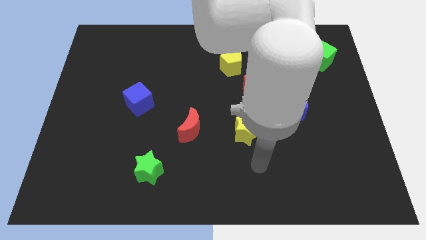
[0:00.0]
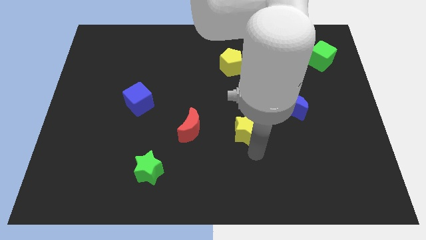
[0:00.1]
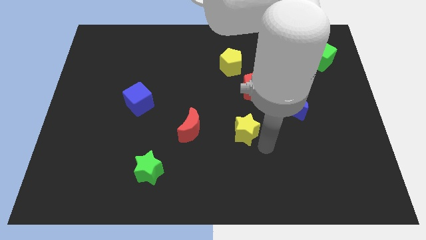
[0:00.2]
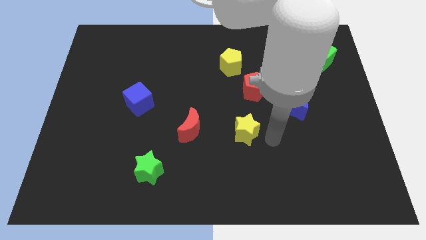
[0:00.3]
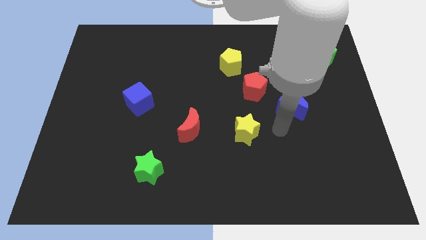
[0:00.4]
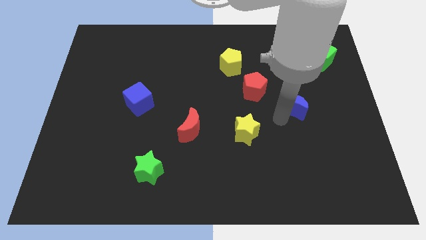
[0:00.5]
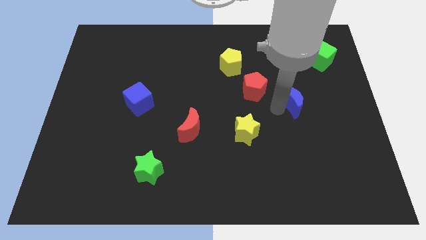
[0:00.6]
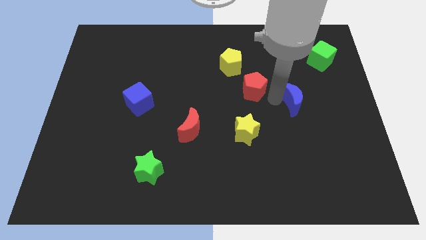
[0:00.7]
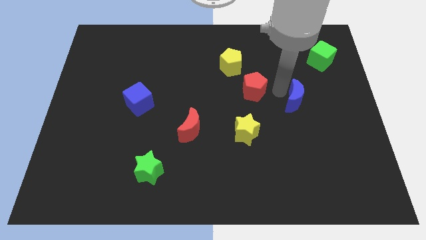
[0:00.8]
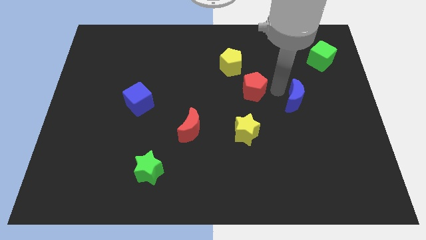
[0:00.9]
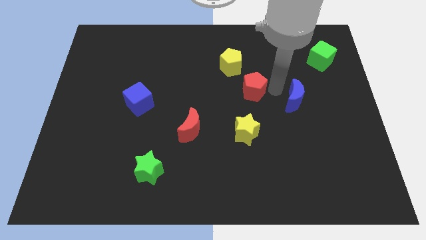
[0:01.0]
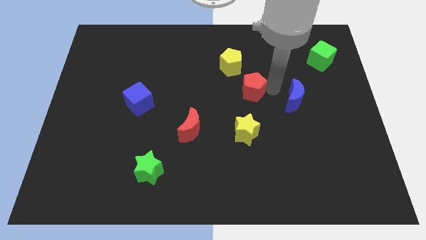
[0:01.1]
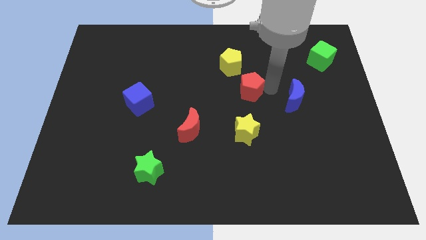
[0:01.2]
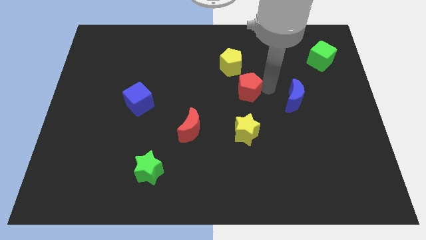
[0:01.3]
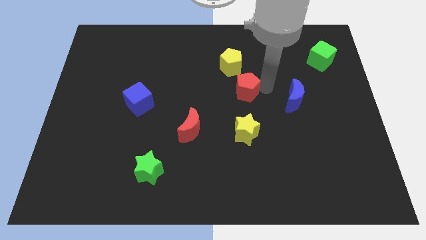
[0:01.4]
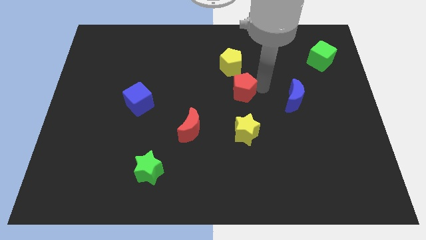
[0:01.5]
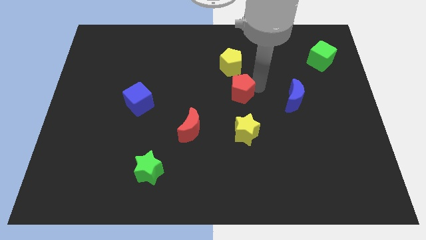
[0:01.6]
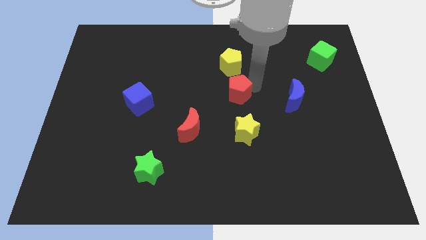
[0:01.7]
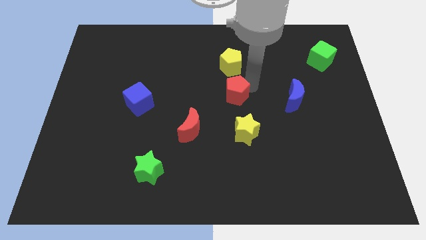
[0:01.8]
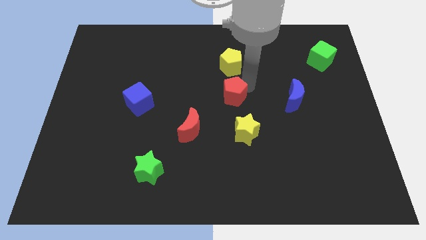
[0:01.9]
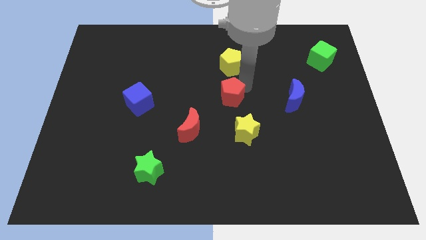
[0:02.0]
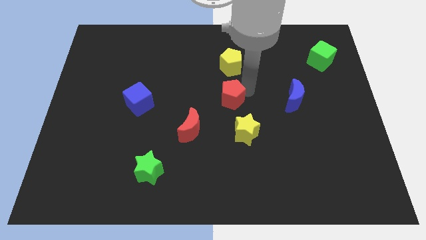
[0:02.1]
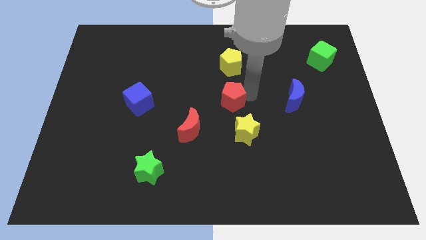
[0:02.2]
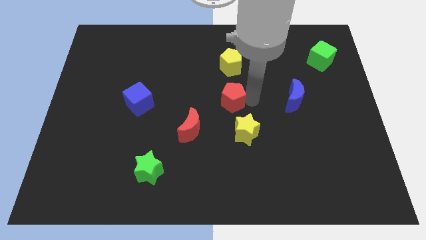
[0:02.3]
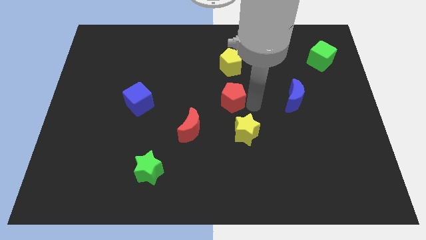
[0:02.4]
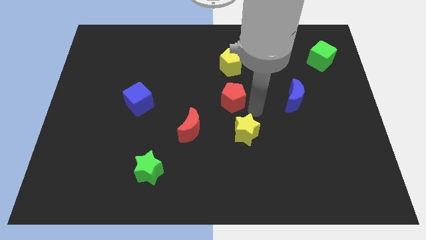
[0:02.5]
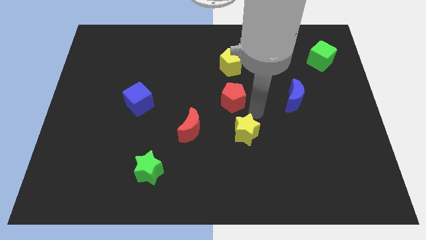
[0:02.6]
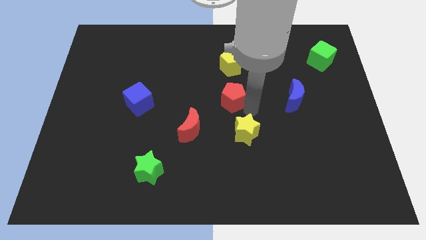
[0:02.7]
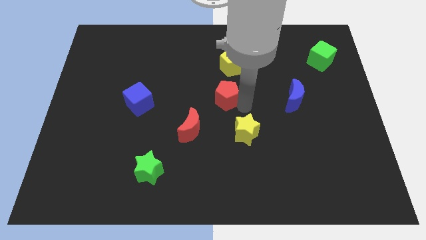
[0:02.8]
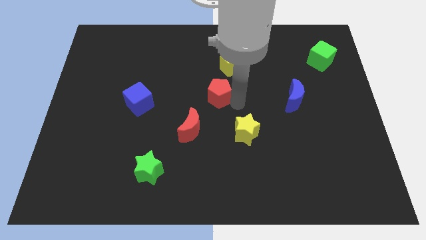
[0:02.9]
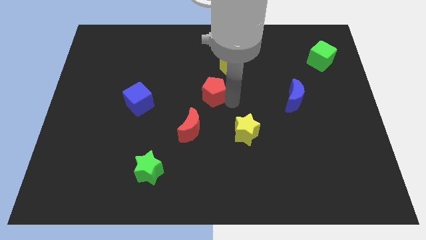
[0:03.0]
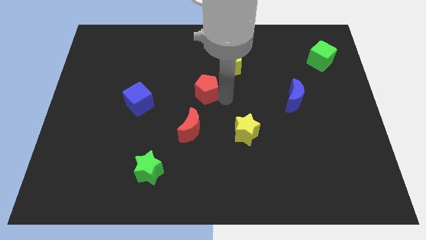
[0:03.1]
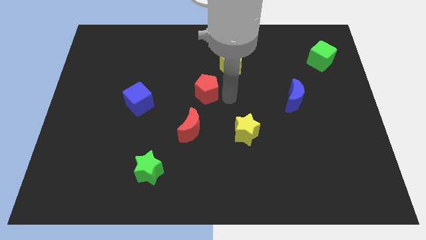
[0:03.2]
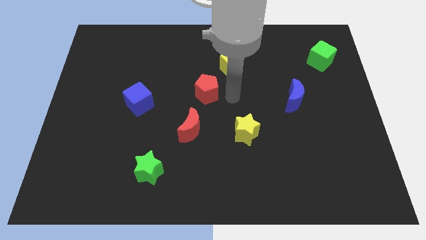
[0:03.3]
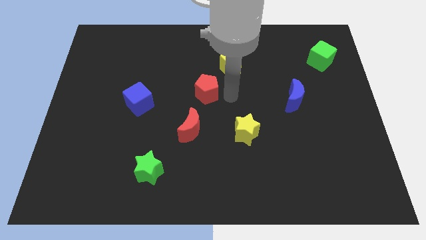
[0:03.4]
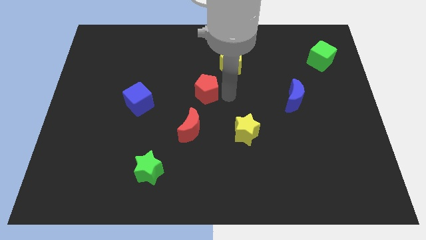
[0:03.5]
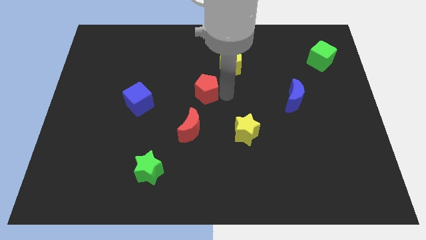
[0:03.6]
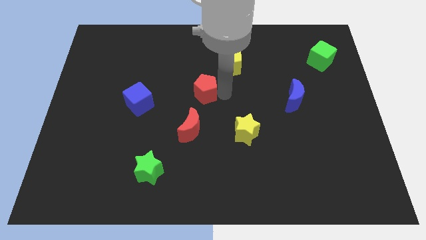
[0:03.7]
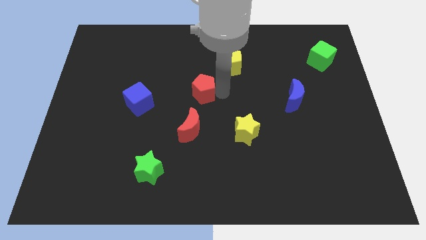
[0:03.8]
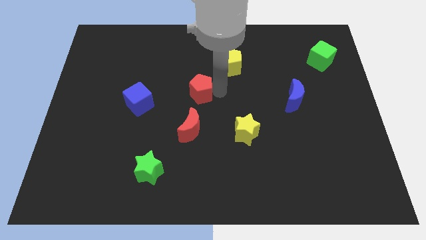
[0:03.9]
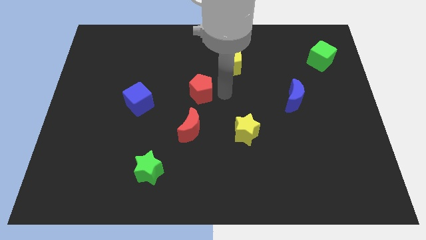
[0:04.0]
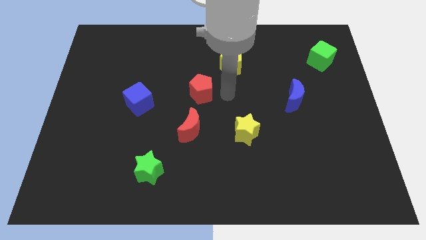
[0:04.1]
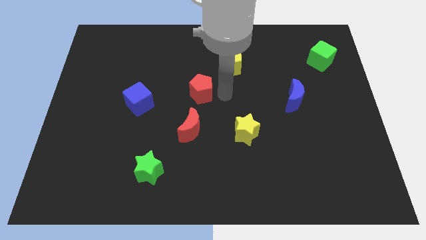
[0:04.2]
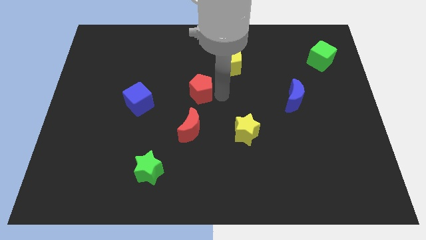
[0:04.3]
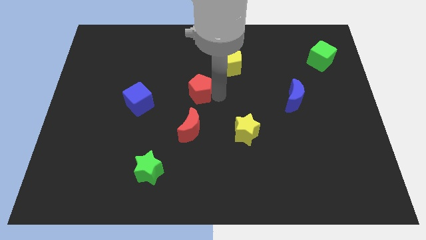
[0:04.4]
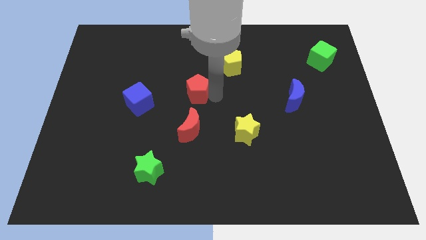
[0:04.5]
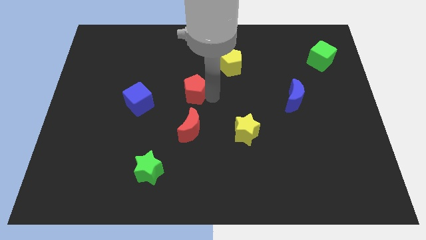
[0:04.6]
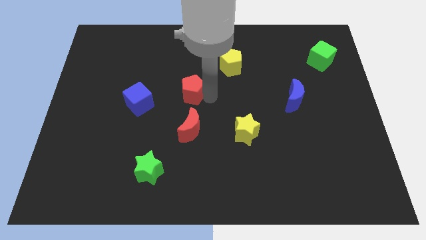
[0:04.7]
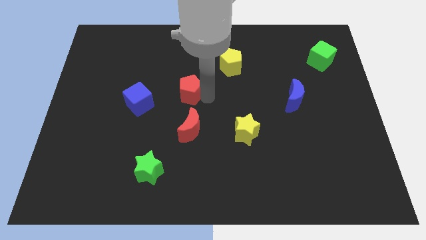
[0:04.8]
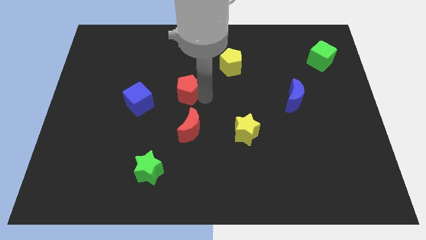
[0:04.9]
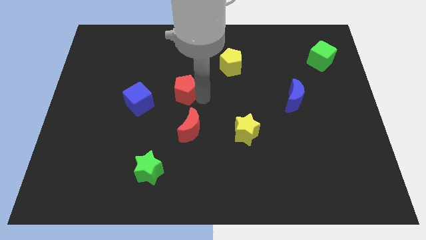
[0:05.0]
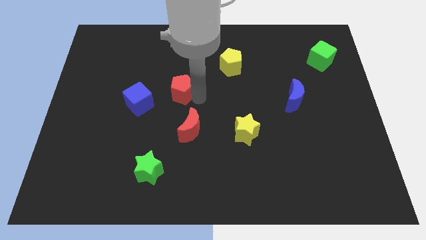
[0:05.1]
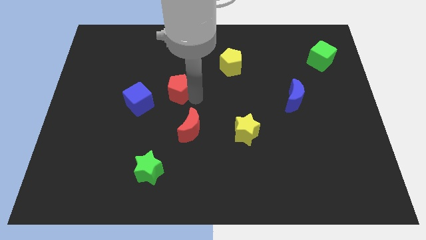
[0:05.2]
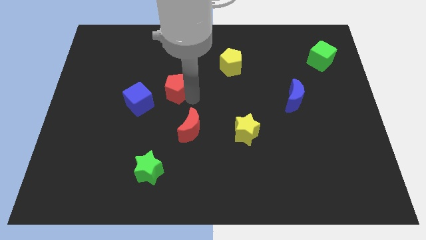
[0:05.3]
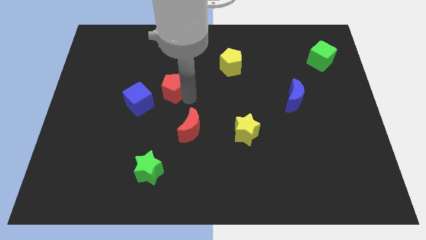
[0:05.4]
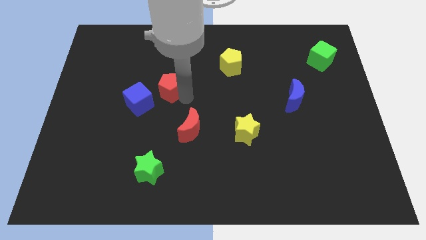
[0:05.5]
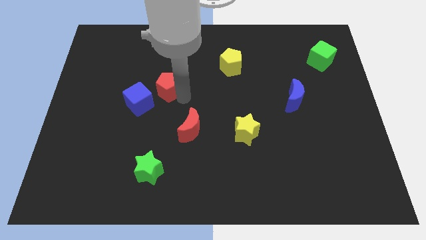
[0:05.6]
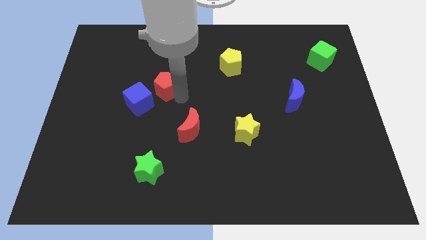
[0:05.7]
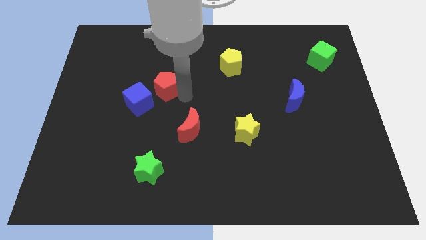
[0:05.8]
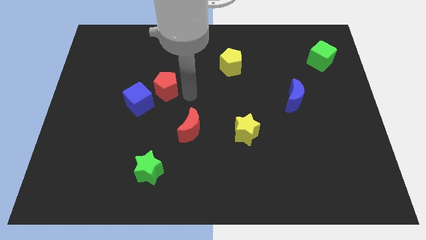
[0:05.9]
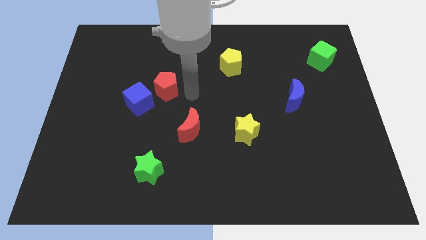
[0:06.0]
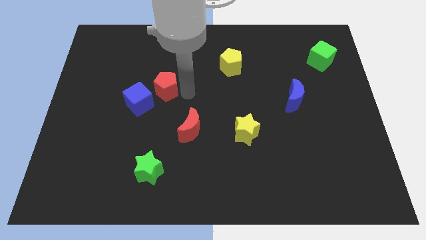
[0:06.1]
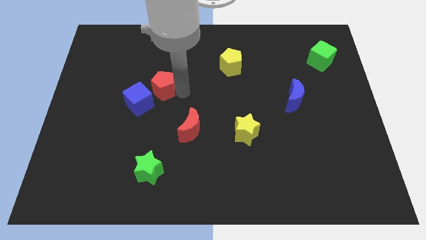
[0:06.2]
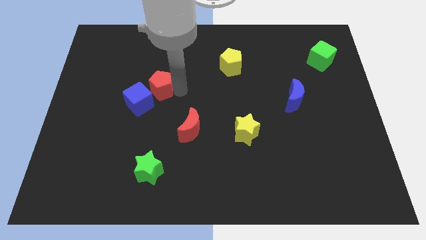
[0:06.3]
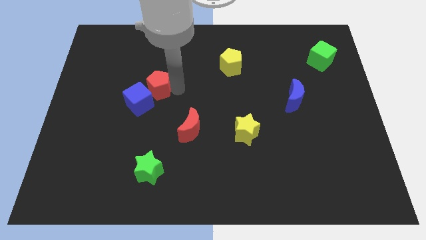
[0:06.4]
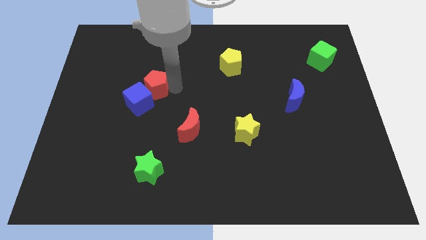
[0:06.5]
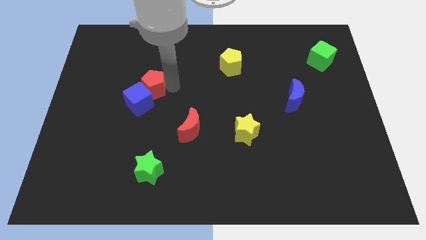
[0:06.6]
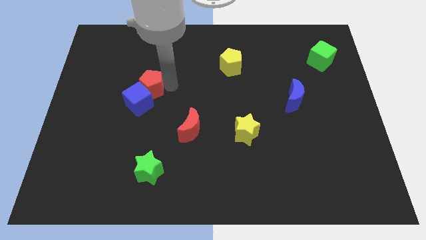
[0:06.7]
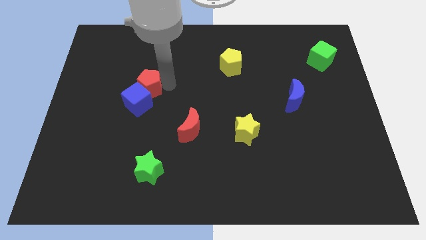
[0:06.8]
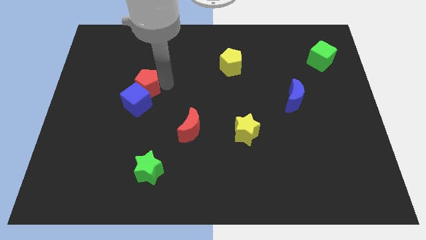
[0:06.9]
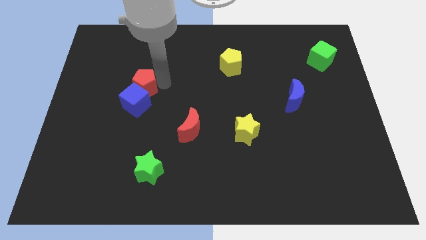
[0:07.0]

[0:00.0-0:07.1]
move the red pentagon to the top left of the blue cube
